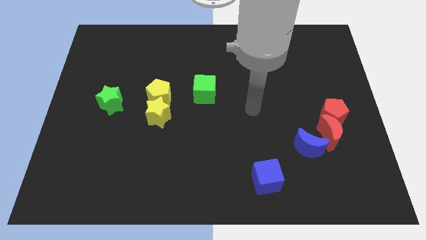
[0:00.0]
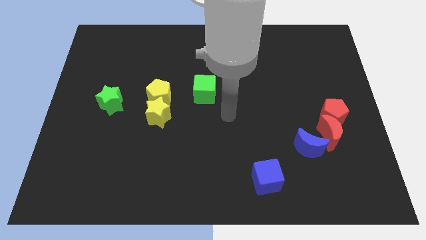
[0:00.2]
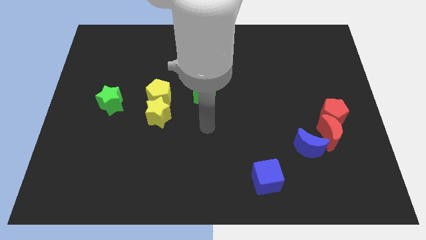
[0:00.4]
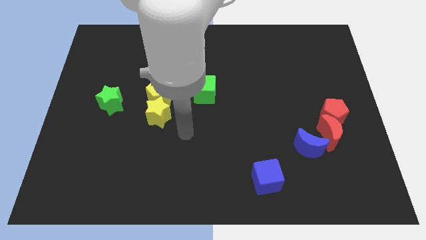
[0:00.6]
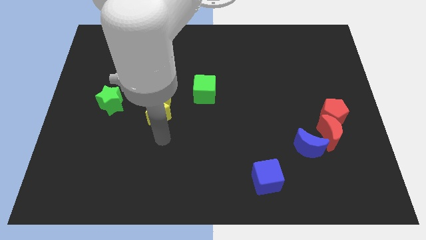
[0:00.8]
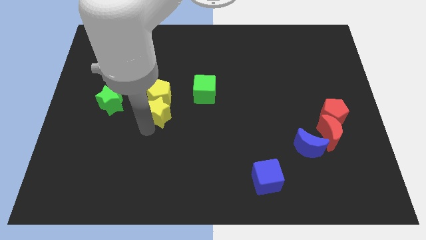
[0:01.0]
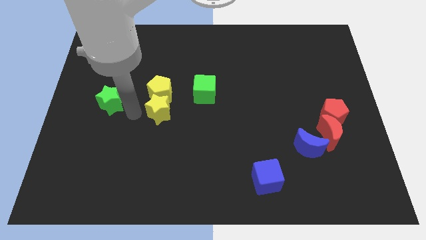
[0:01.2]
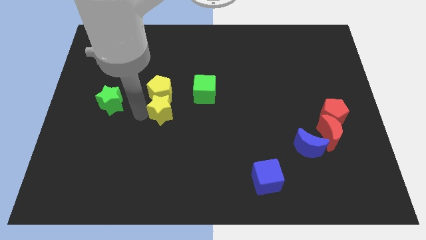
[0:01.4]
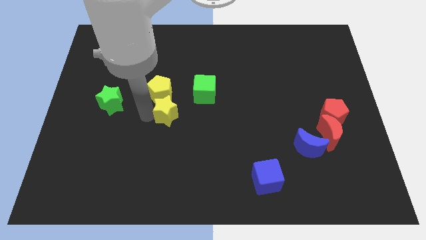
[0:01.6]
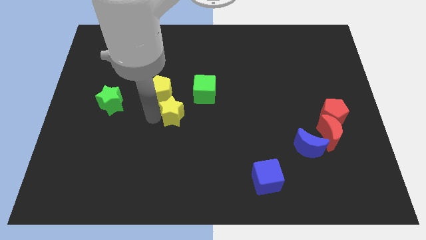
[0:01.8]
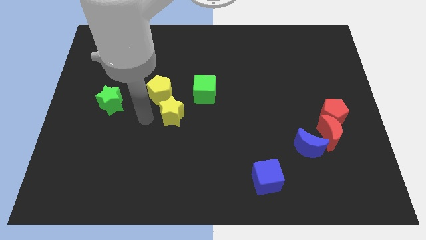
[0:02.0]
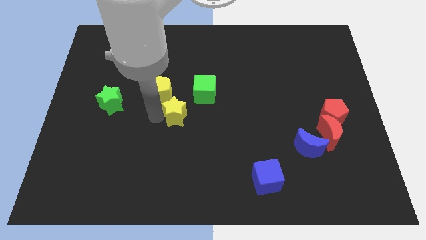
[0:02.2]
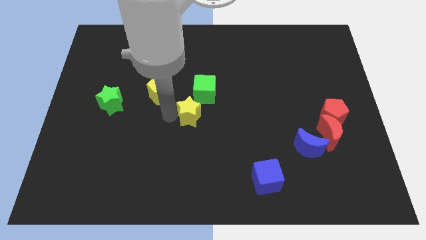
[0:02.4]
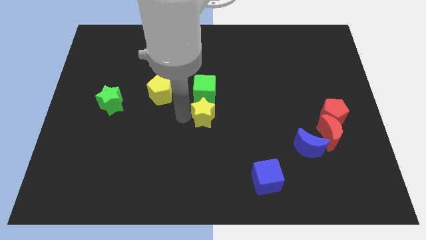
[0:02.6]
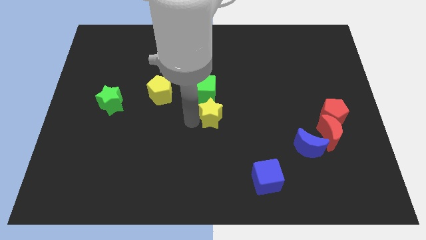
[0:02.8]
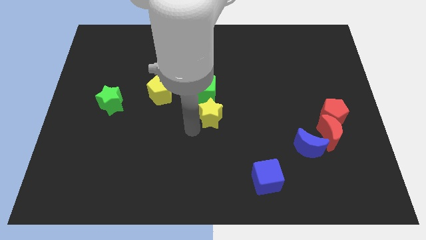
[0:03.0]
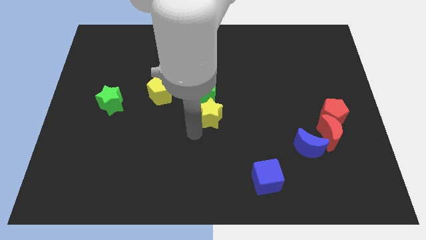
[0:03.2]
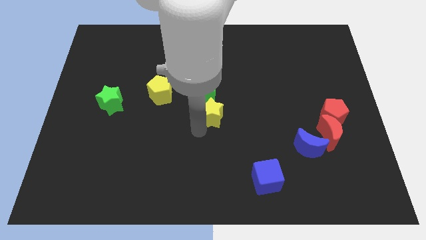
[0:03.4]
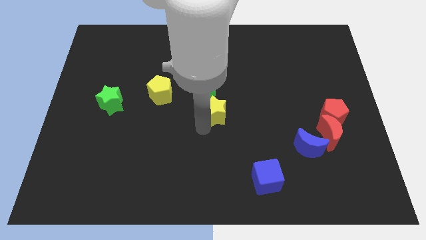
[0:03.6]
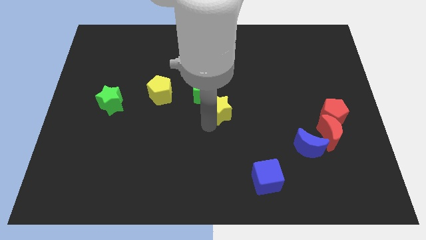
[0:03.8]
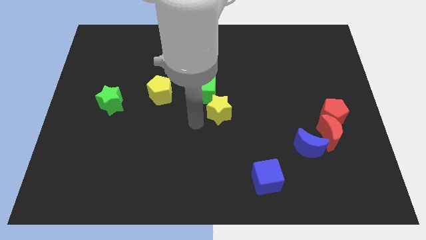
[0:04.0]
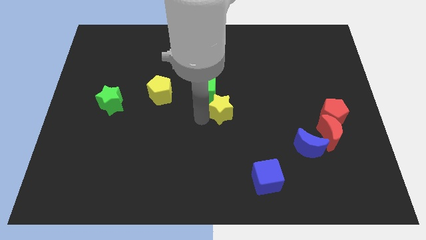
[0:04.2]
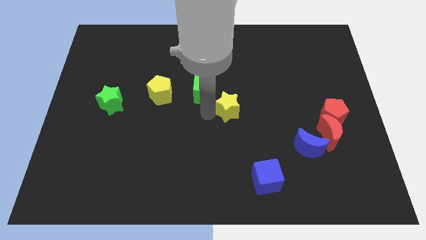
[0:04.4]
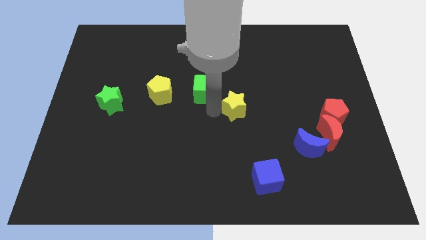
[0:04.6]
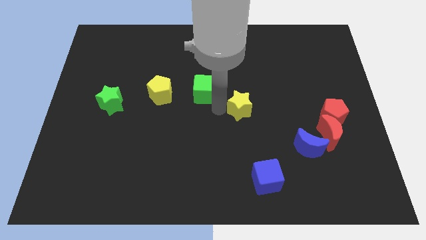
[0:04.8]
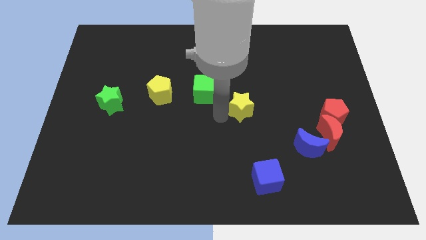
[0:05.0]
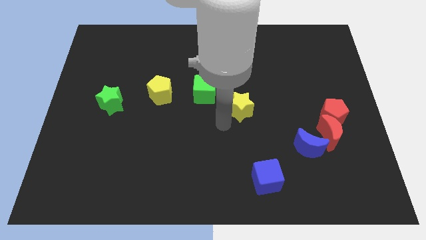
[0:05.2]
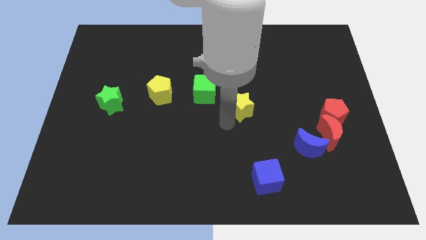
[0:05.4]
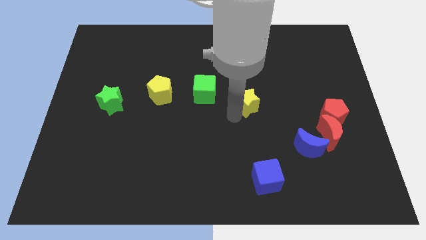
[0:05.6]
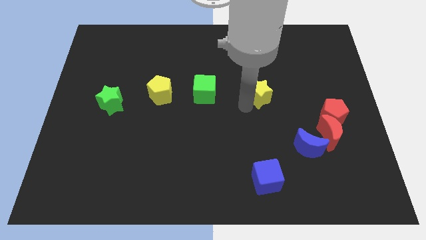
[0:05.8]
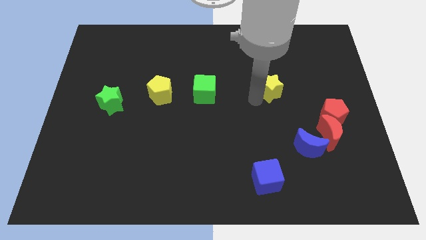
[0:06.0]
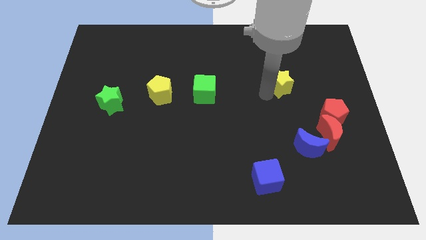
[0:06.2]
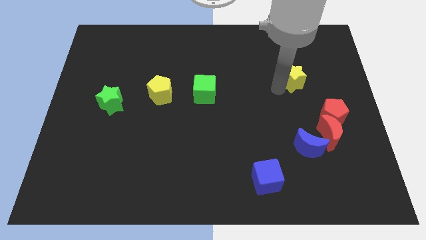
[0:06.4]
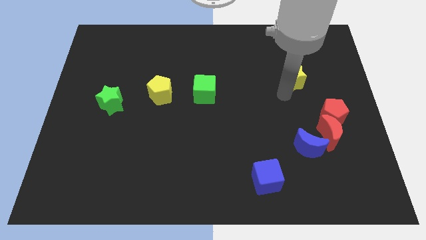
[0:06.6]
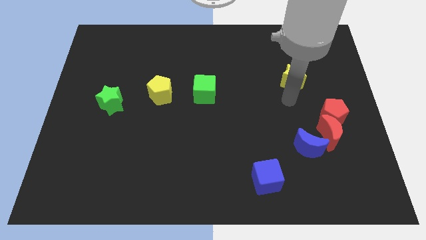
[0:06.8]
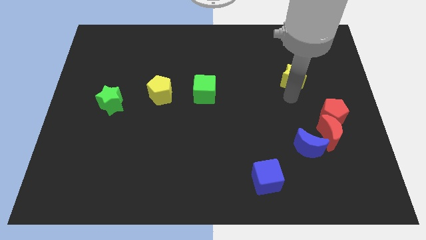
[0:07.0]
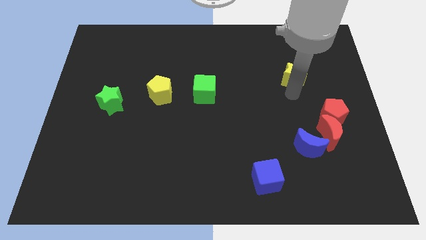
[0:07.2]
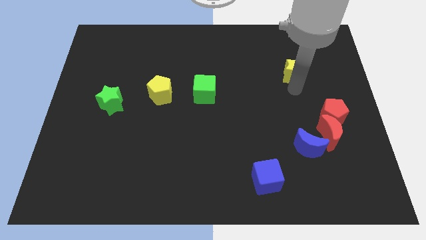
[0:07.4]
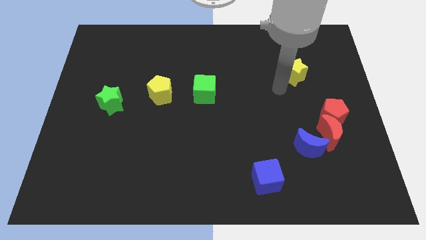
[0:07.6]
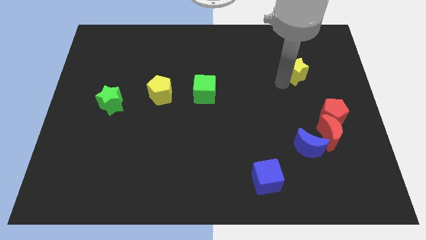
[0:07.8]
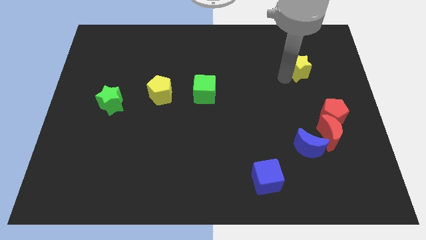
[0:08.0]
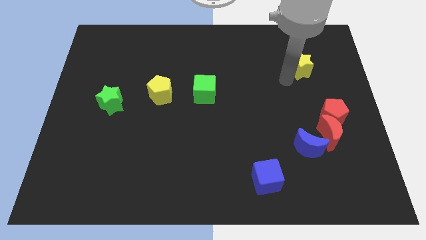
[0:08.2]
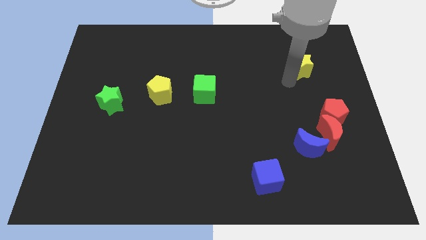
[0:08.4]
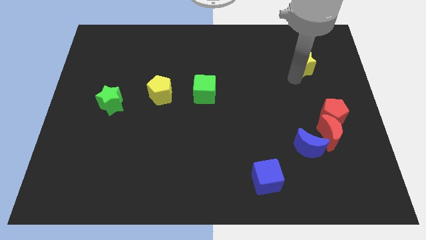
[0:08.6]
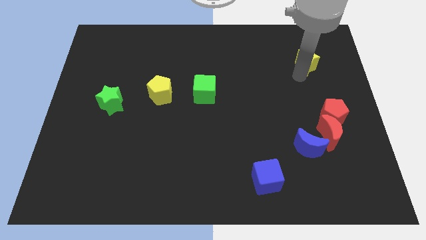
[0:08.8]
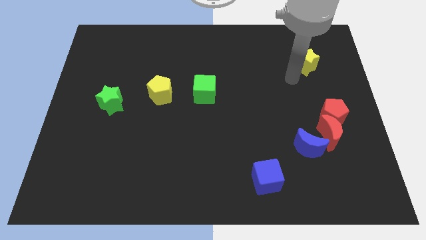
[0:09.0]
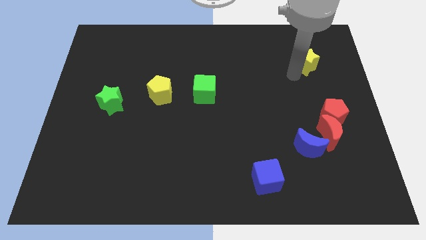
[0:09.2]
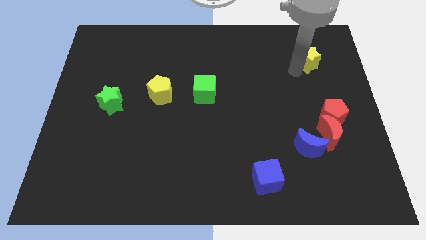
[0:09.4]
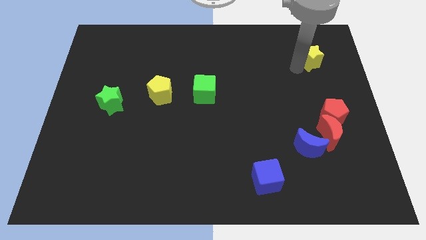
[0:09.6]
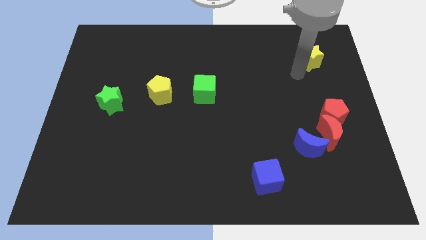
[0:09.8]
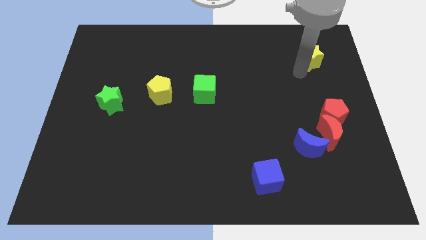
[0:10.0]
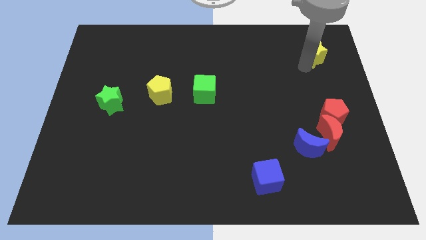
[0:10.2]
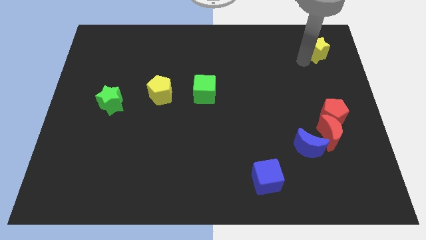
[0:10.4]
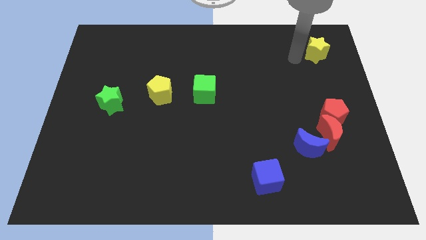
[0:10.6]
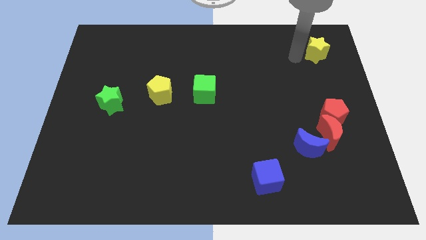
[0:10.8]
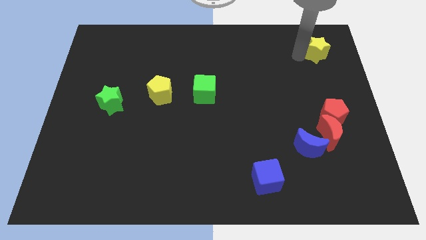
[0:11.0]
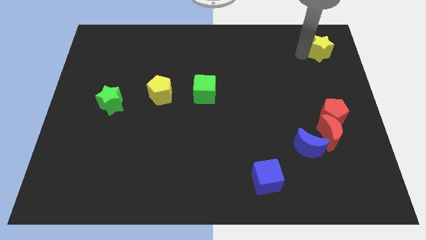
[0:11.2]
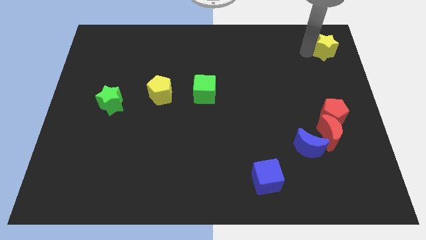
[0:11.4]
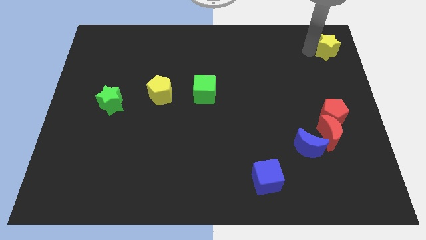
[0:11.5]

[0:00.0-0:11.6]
put the yellow star to the upper right corner

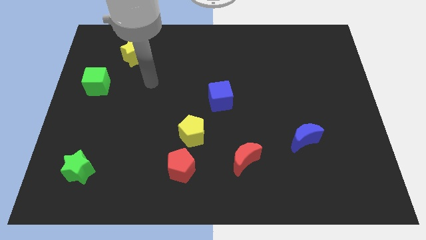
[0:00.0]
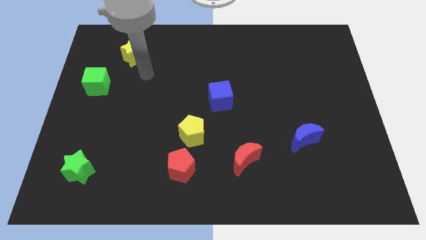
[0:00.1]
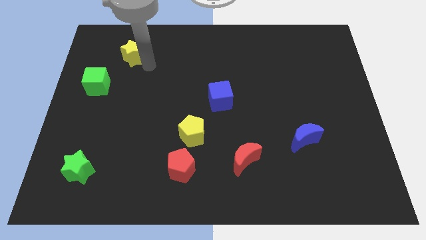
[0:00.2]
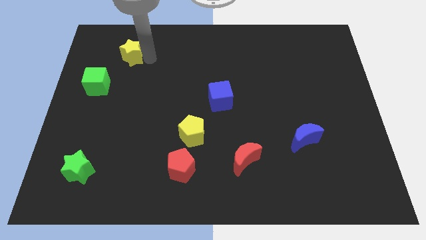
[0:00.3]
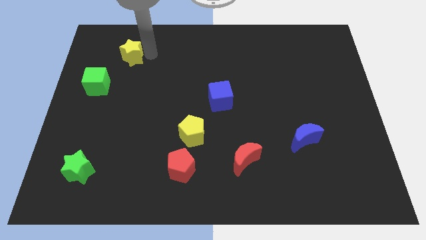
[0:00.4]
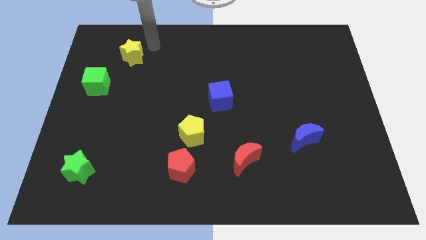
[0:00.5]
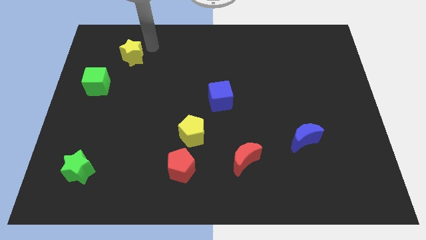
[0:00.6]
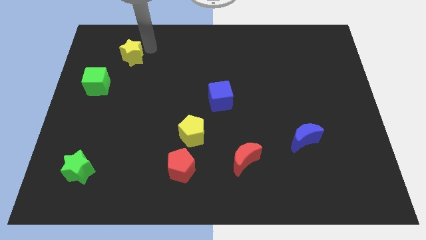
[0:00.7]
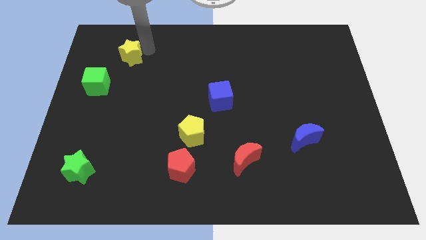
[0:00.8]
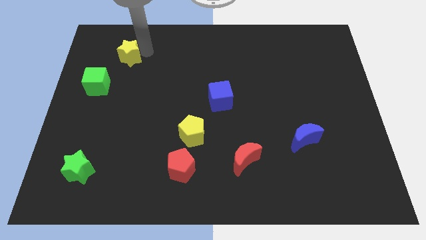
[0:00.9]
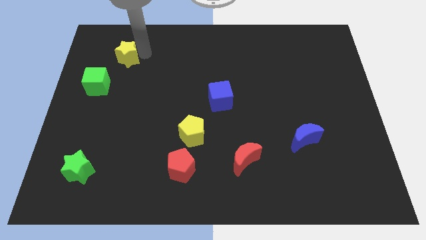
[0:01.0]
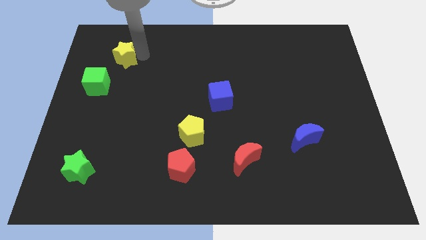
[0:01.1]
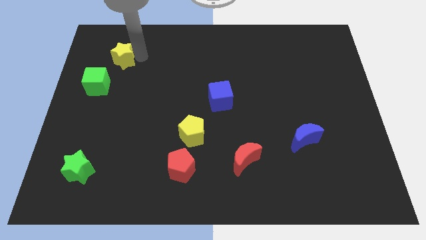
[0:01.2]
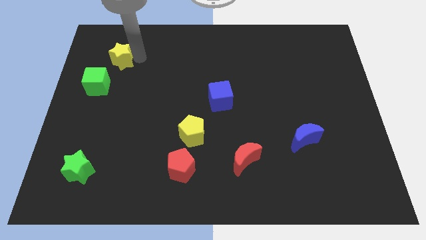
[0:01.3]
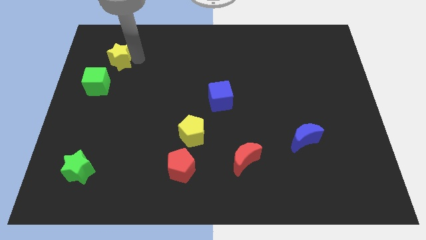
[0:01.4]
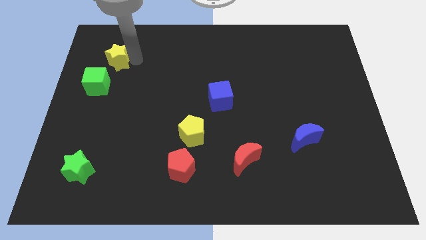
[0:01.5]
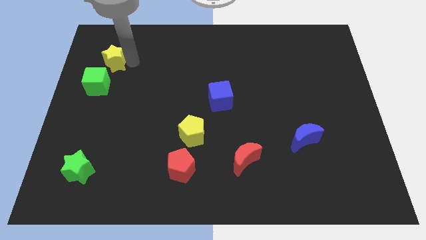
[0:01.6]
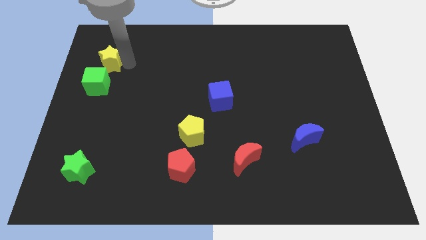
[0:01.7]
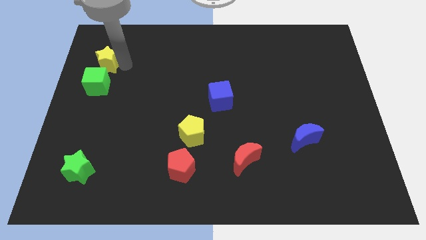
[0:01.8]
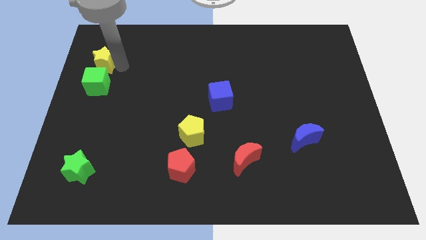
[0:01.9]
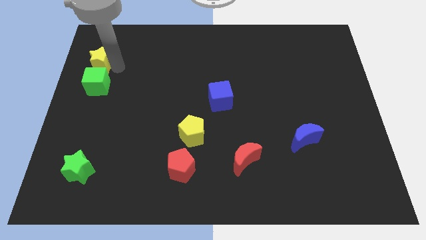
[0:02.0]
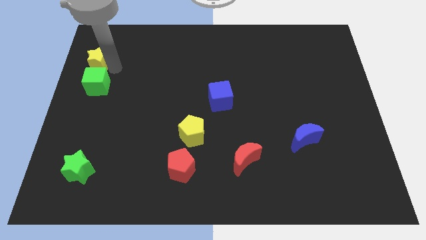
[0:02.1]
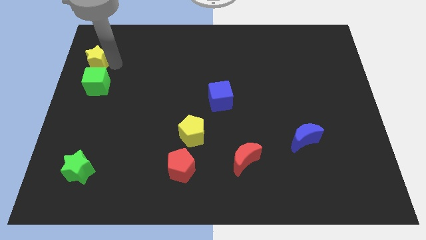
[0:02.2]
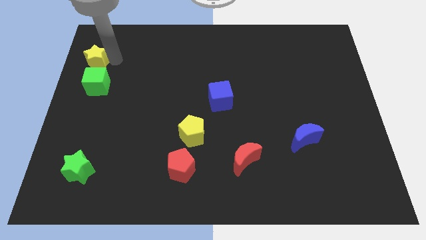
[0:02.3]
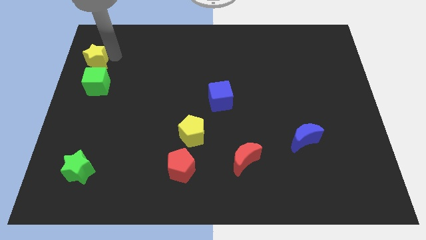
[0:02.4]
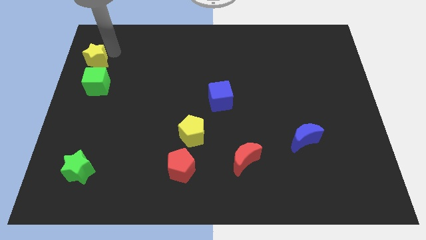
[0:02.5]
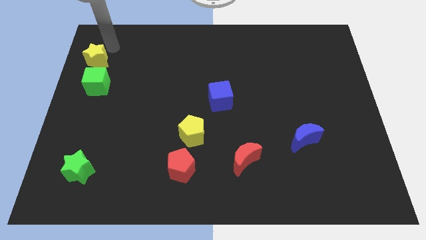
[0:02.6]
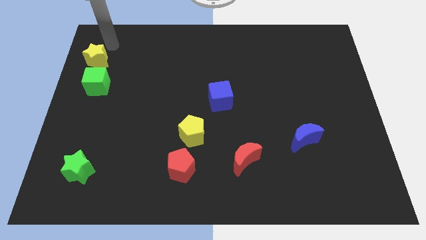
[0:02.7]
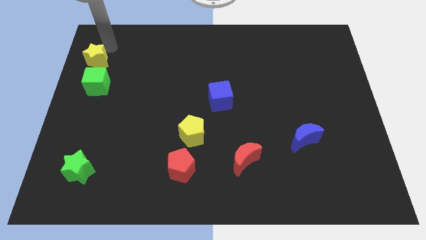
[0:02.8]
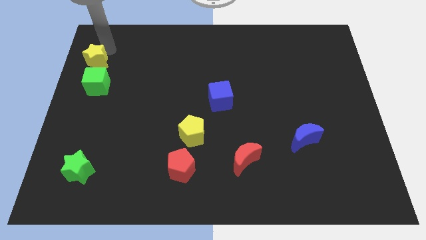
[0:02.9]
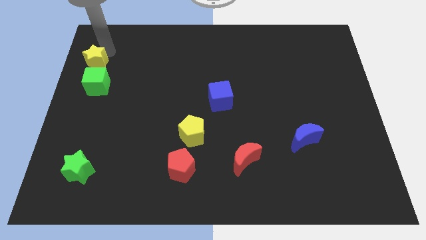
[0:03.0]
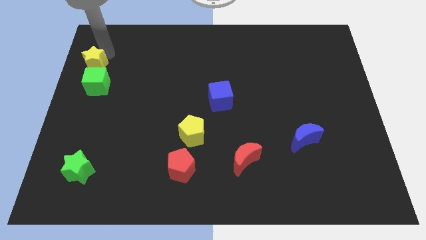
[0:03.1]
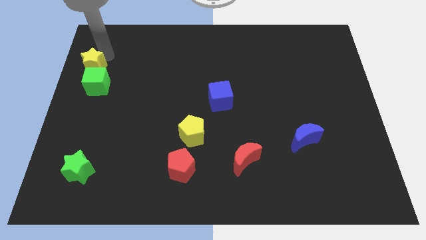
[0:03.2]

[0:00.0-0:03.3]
put the yellow star to the left side
